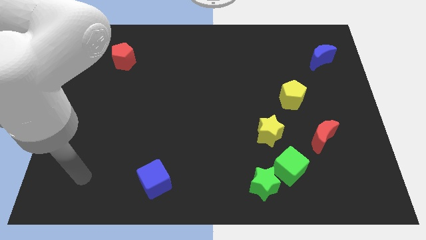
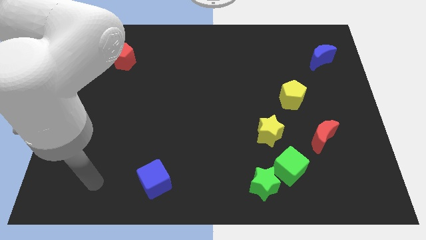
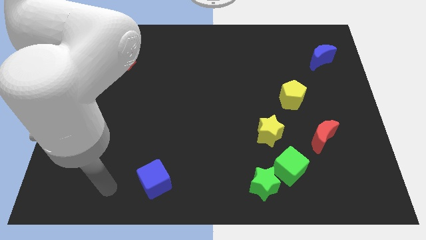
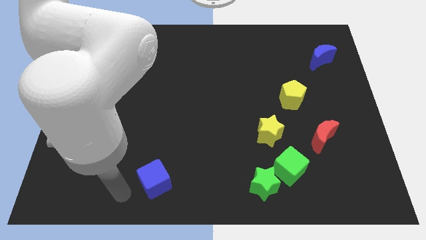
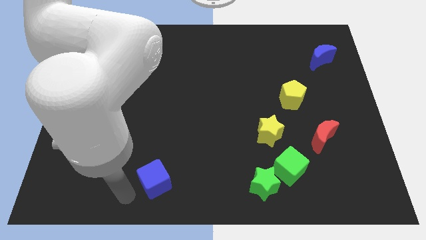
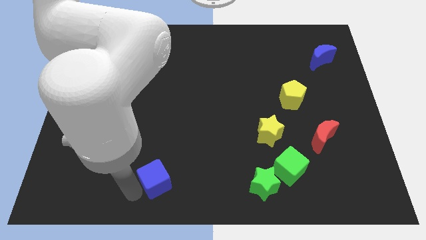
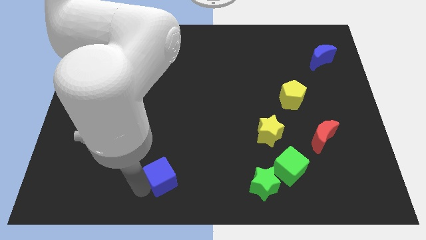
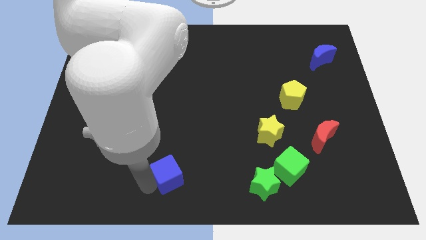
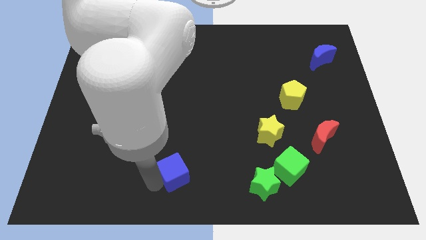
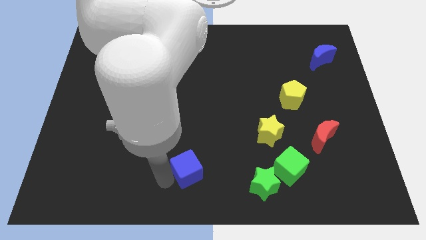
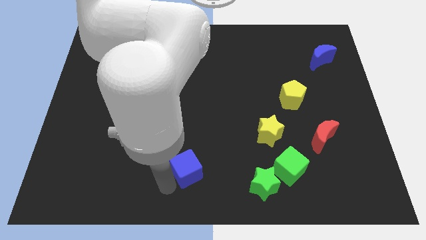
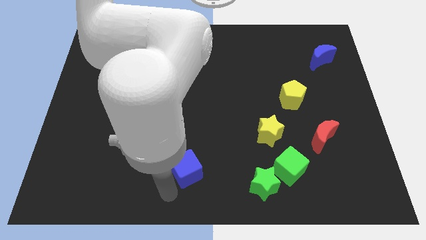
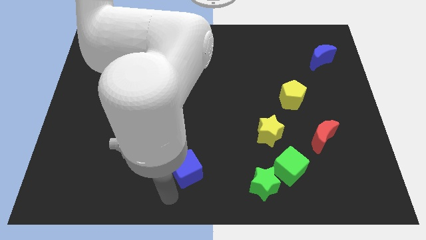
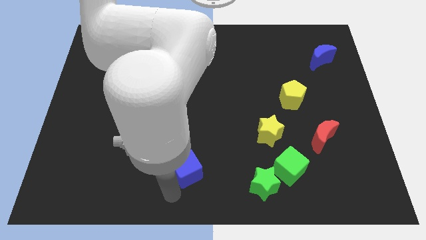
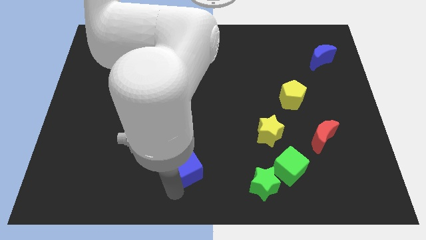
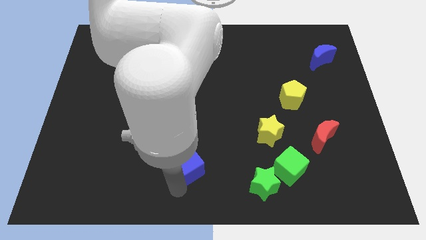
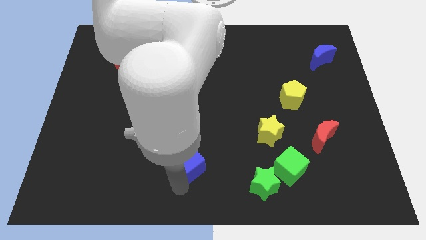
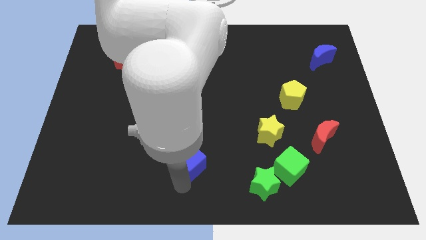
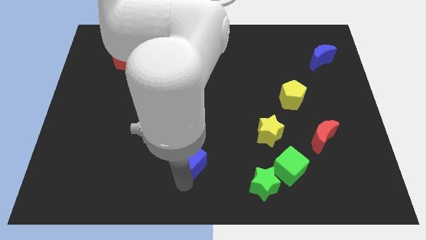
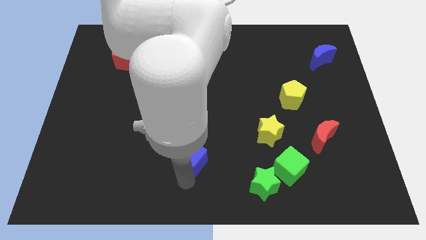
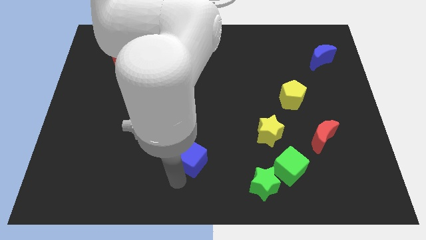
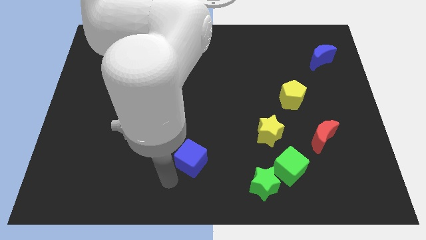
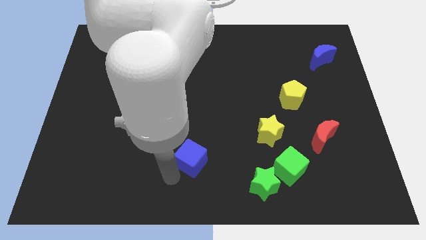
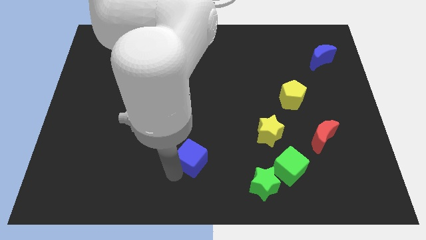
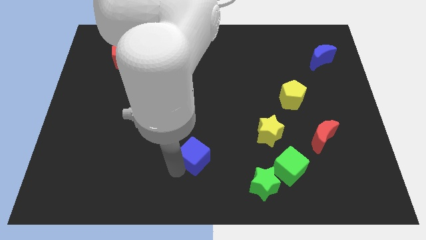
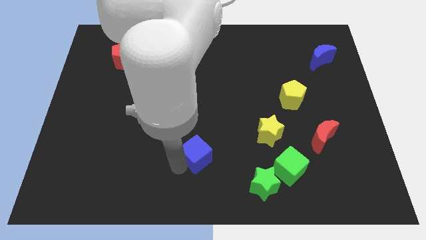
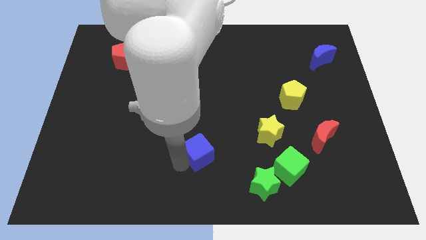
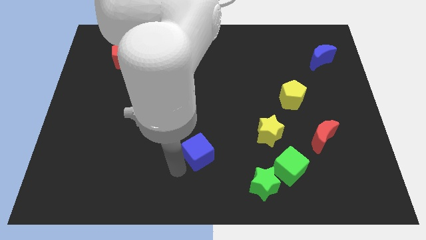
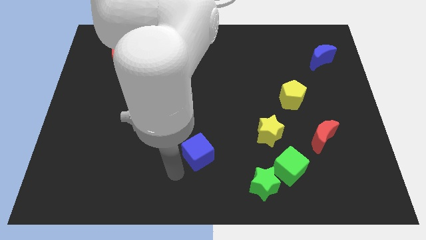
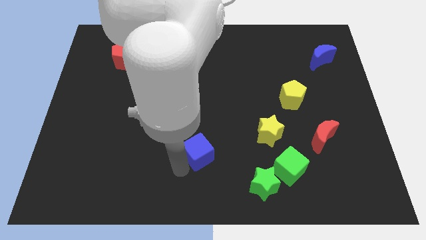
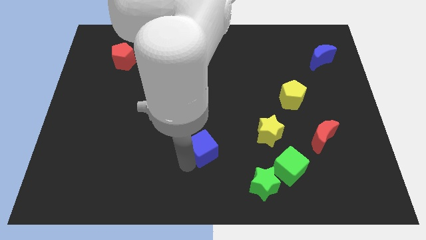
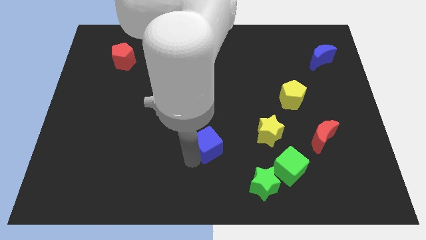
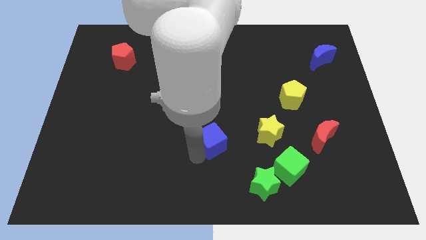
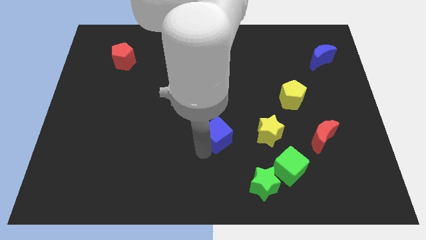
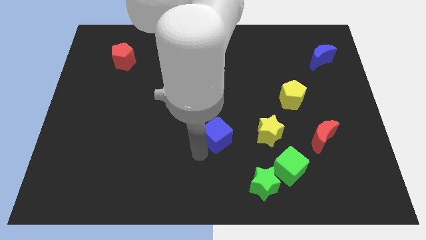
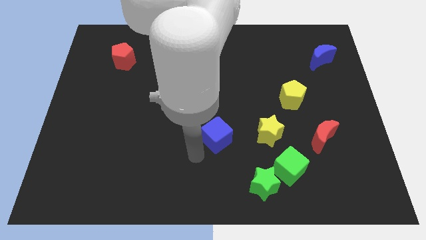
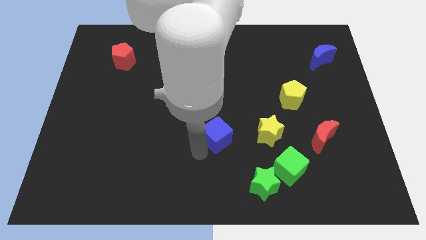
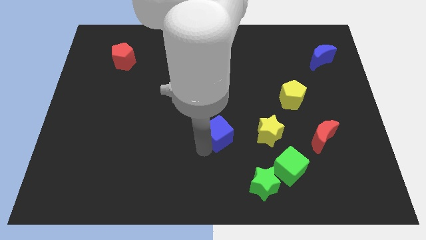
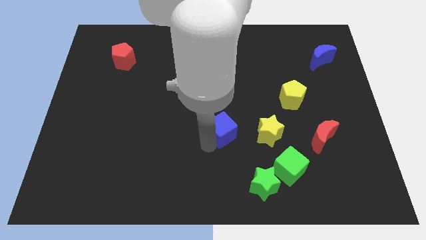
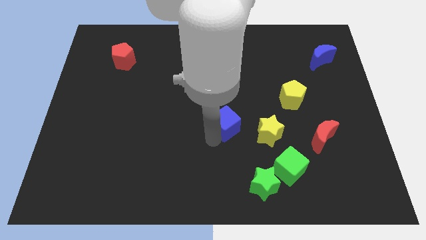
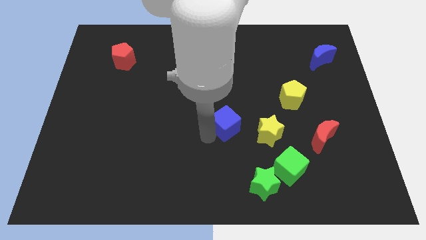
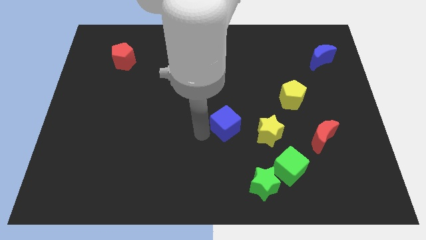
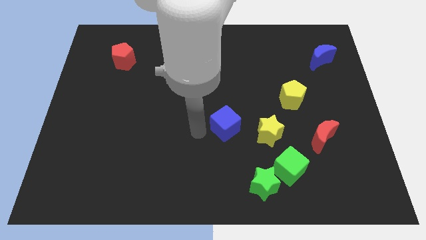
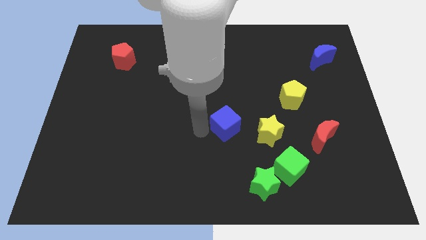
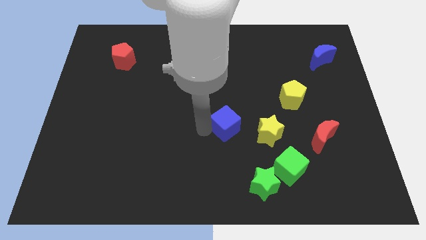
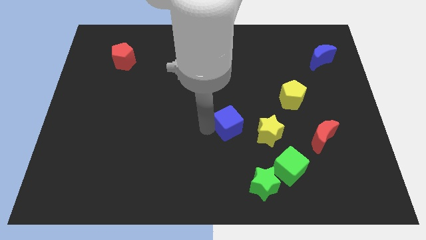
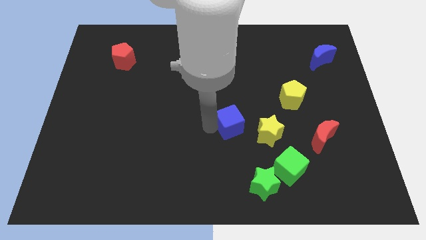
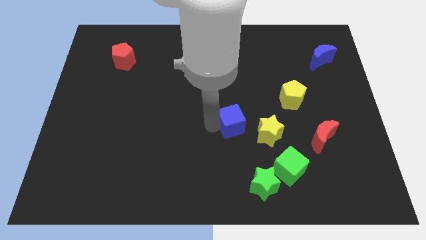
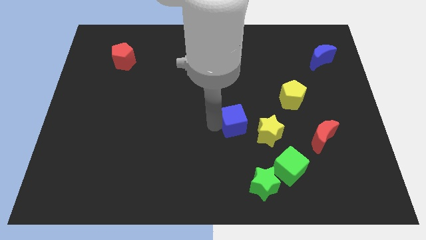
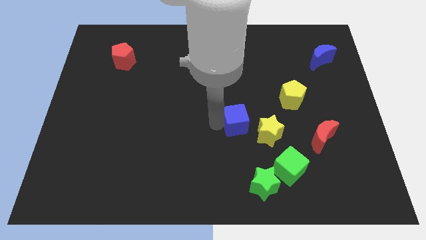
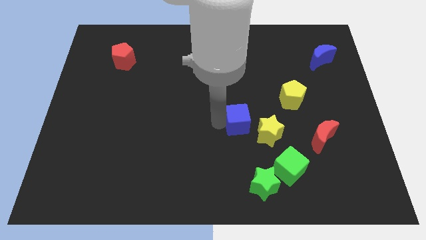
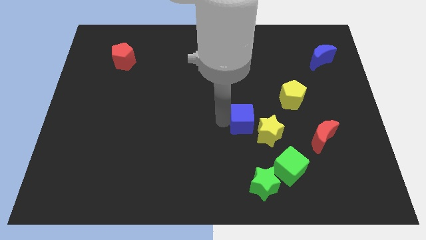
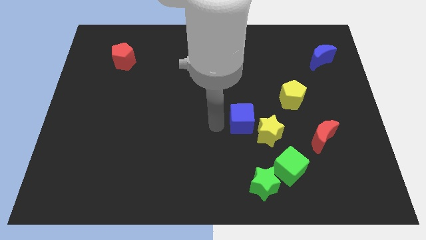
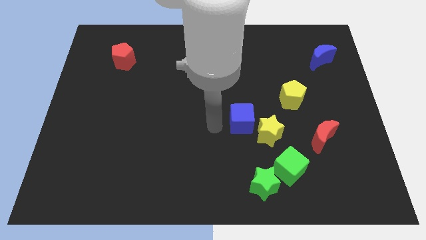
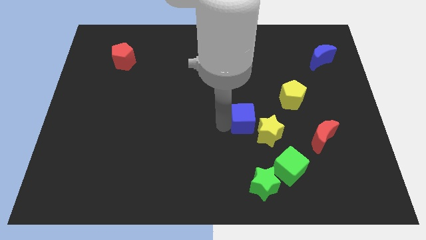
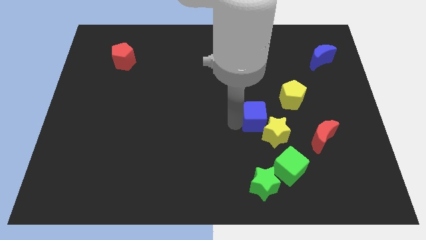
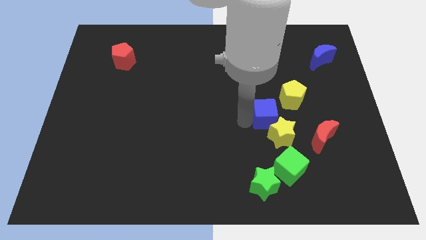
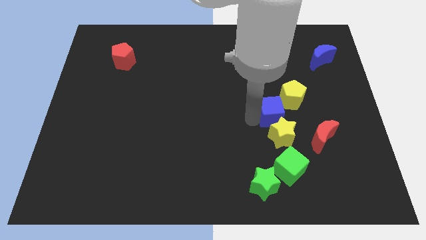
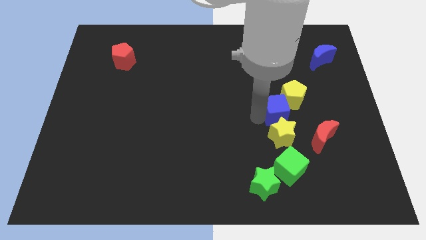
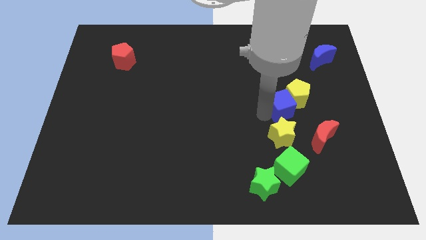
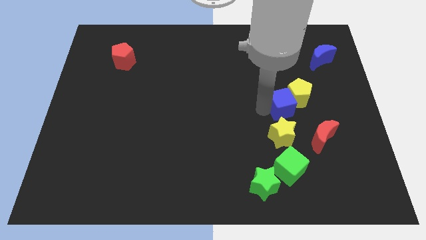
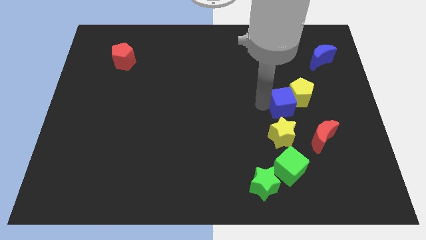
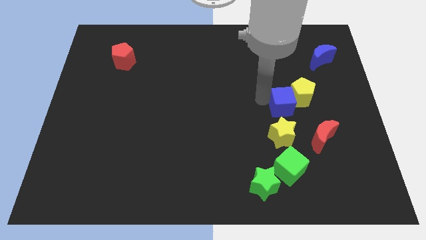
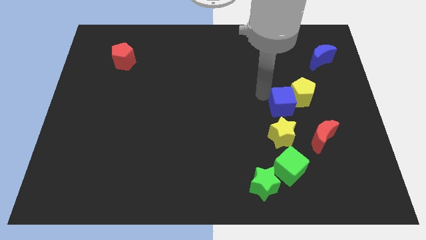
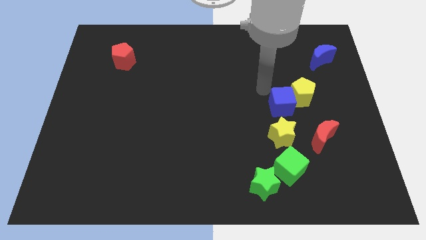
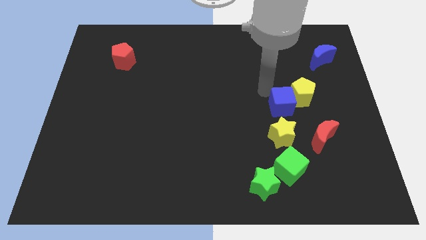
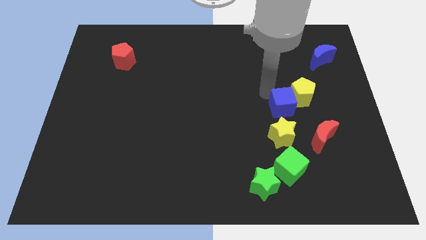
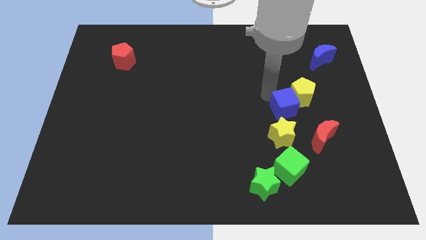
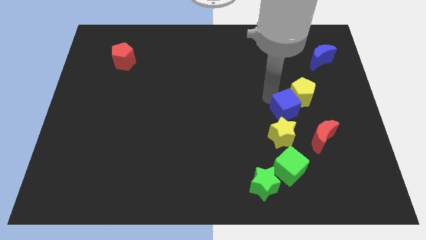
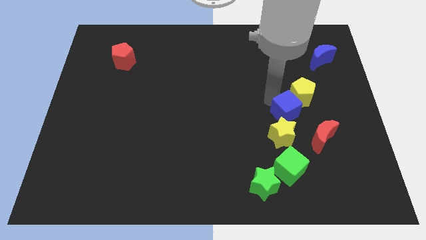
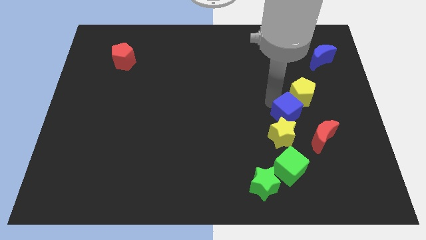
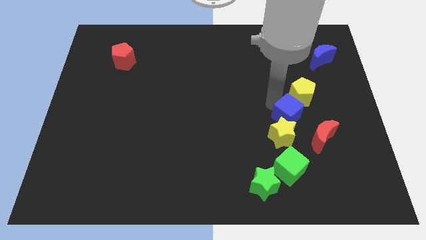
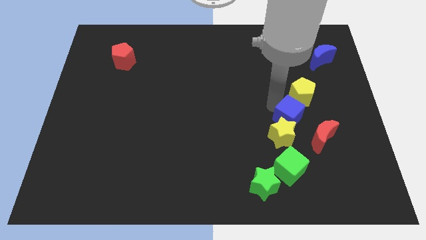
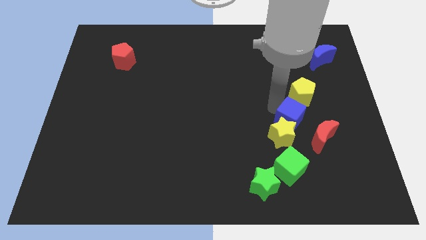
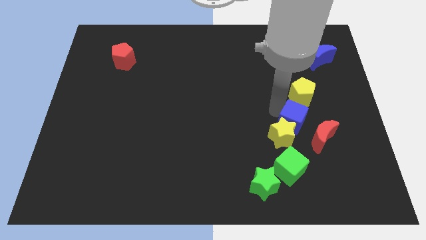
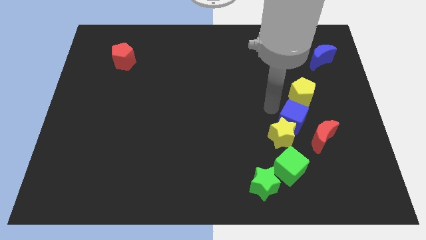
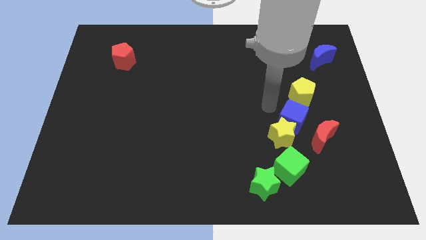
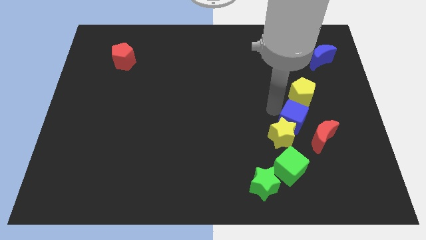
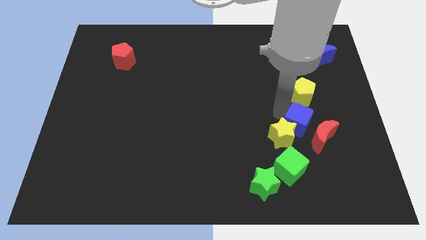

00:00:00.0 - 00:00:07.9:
slide the blue cube to the red moon
